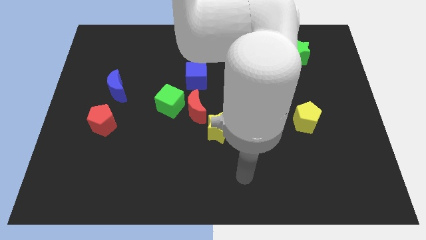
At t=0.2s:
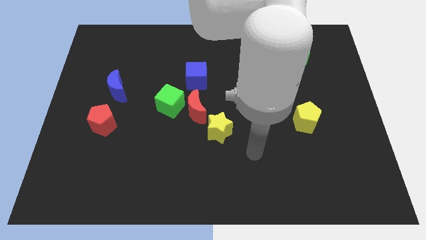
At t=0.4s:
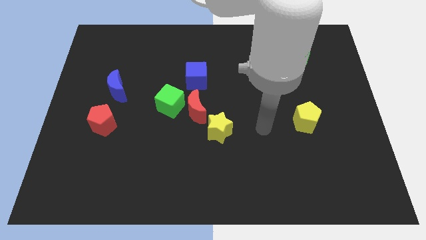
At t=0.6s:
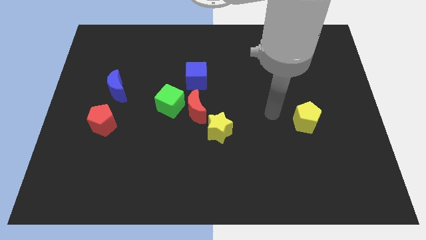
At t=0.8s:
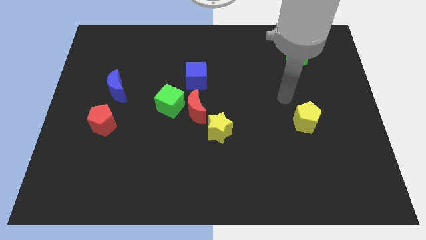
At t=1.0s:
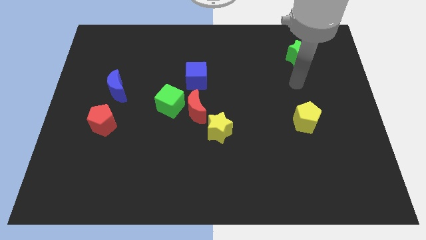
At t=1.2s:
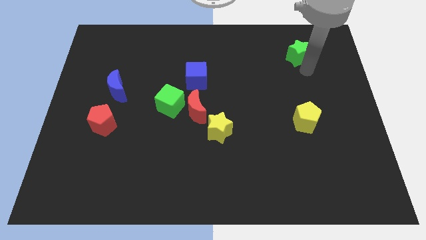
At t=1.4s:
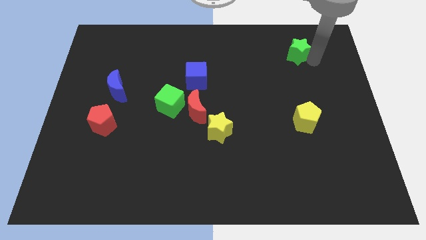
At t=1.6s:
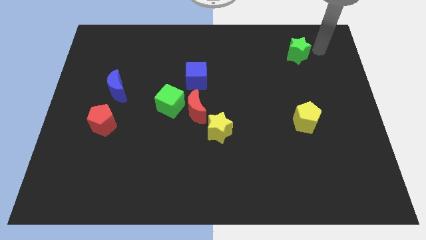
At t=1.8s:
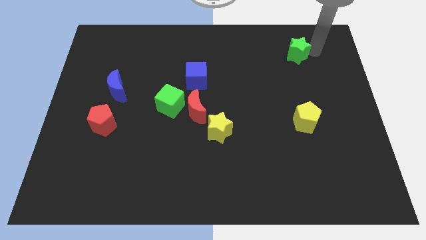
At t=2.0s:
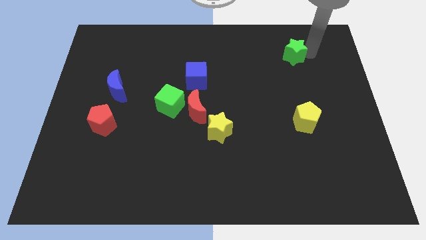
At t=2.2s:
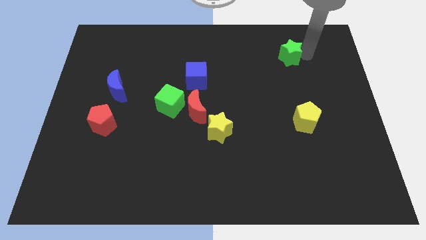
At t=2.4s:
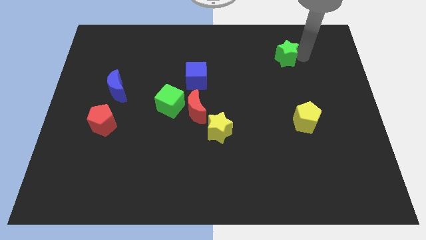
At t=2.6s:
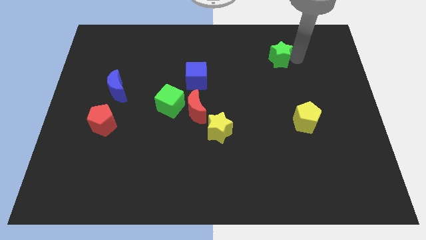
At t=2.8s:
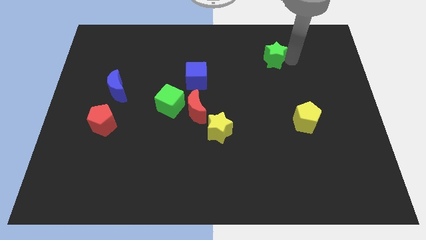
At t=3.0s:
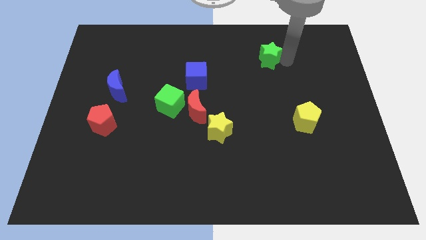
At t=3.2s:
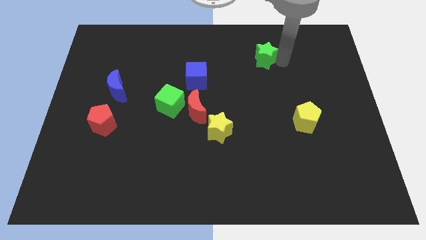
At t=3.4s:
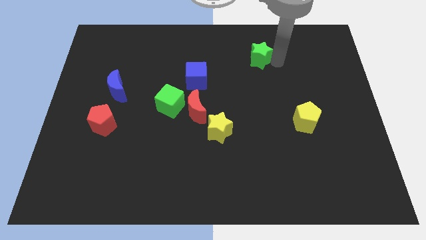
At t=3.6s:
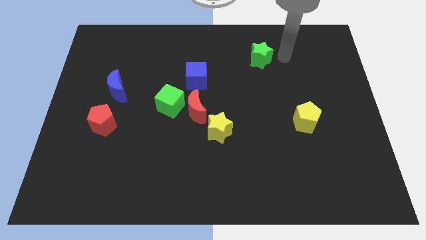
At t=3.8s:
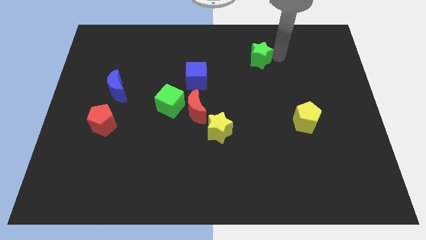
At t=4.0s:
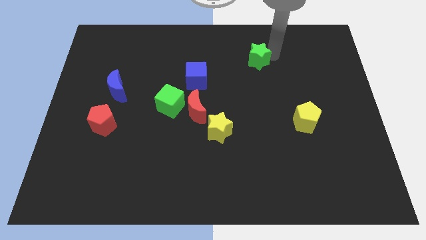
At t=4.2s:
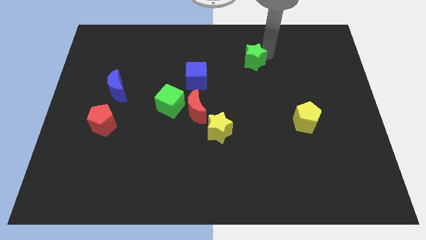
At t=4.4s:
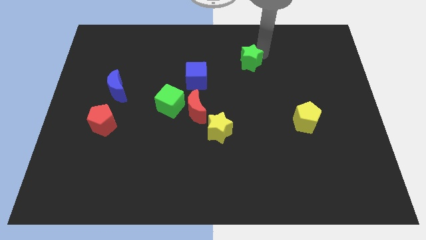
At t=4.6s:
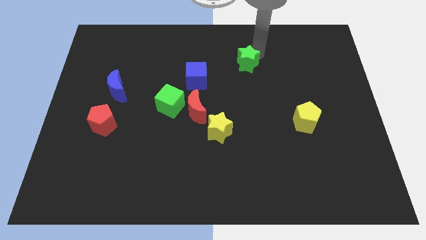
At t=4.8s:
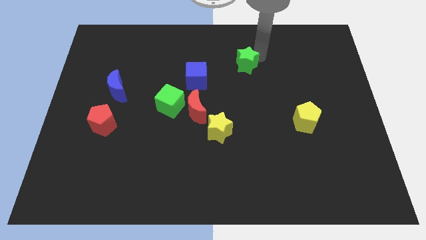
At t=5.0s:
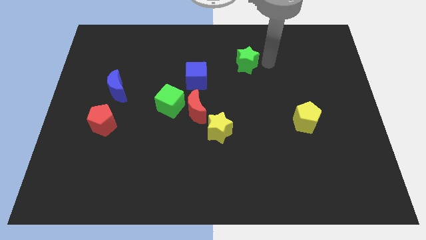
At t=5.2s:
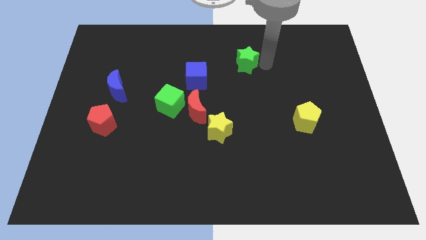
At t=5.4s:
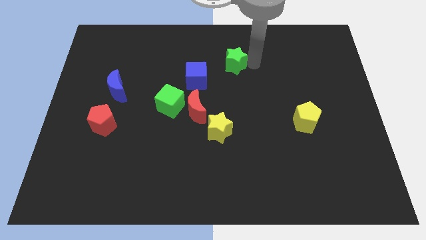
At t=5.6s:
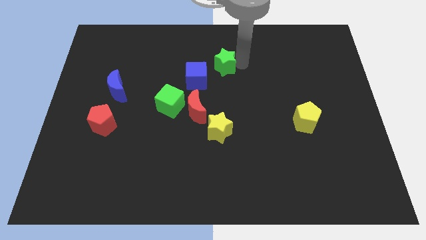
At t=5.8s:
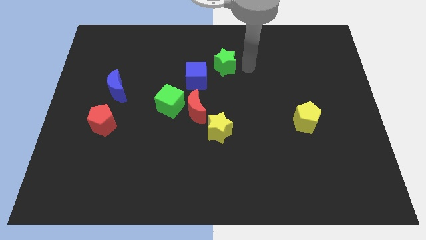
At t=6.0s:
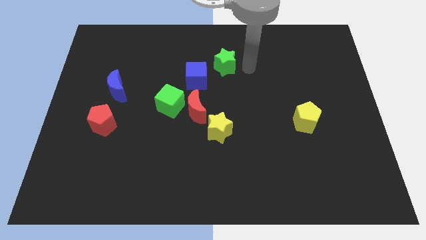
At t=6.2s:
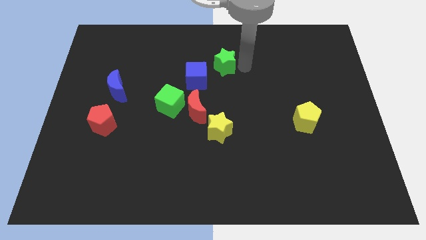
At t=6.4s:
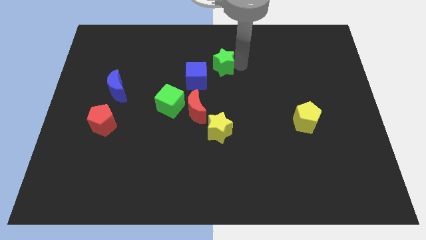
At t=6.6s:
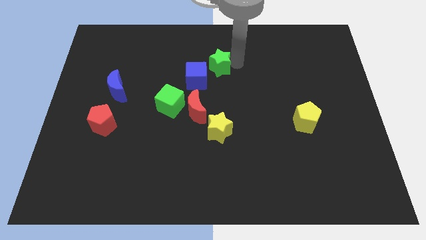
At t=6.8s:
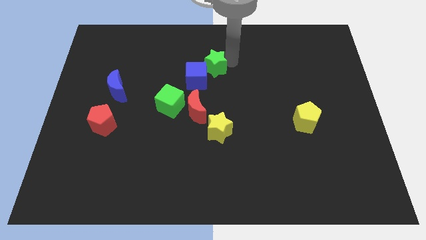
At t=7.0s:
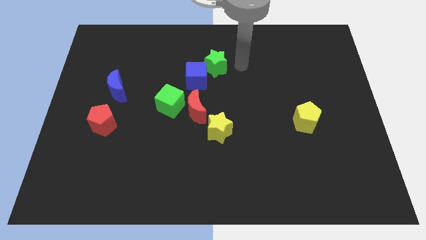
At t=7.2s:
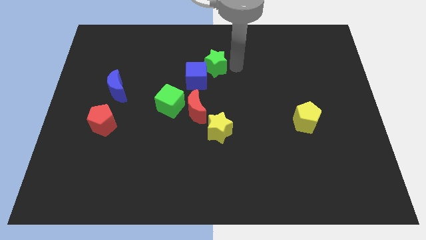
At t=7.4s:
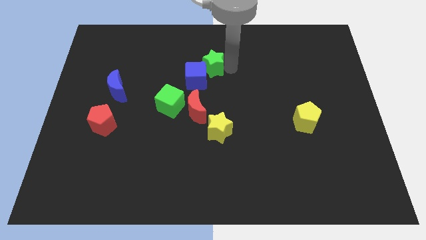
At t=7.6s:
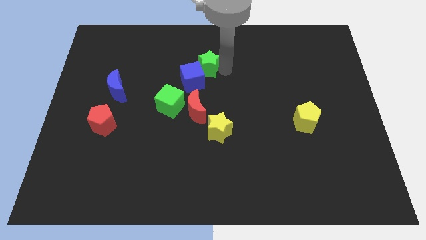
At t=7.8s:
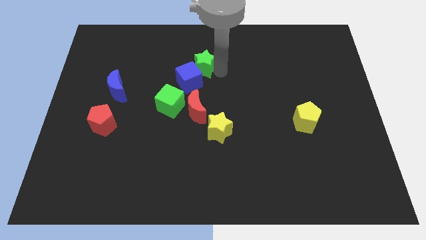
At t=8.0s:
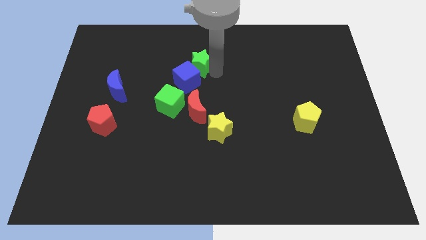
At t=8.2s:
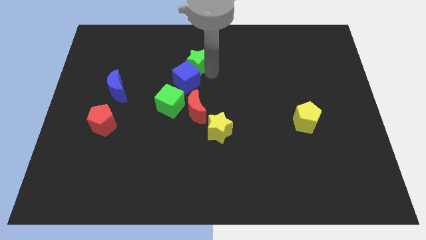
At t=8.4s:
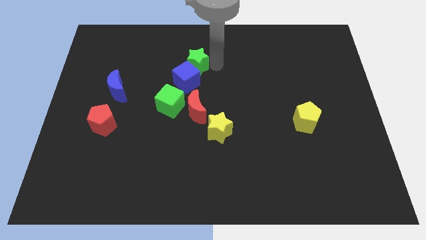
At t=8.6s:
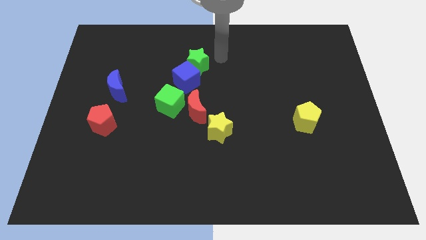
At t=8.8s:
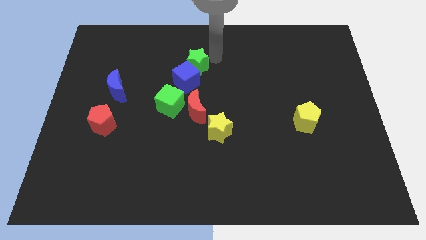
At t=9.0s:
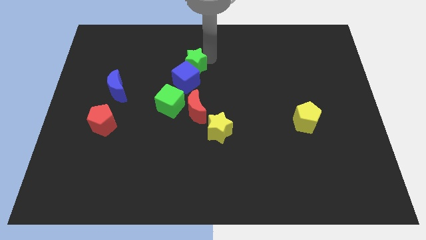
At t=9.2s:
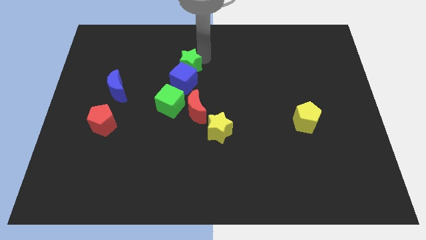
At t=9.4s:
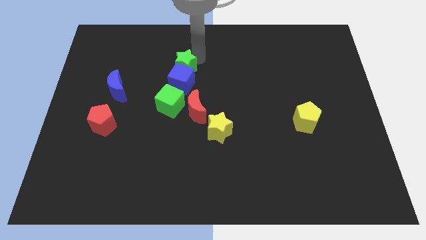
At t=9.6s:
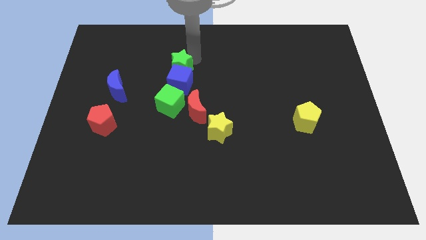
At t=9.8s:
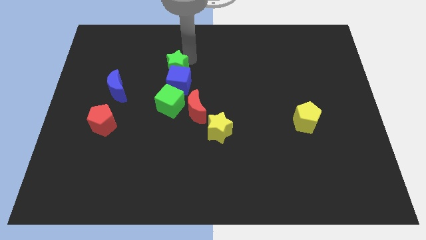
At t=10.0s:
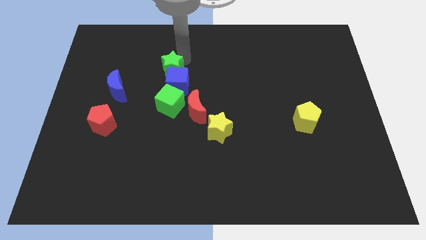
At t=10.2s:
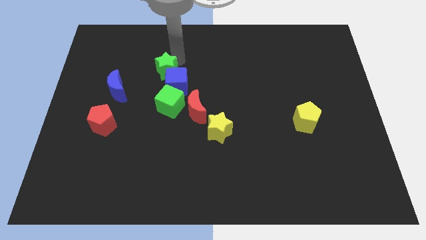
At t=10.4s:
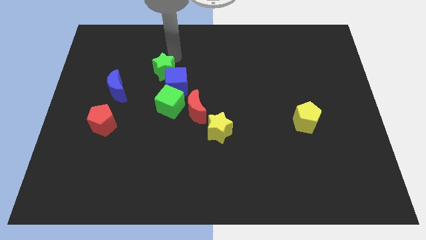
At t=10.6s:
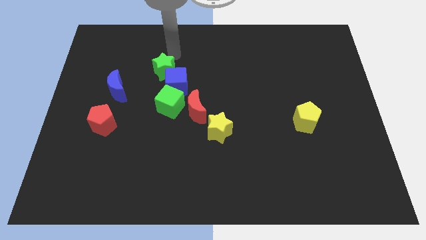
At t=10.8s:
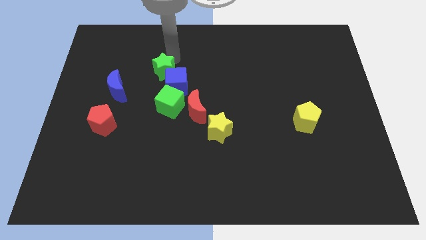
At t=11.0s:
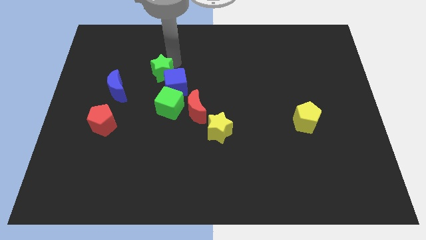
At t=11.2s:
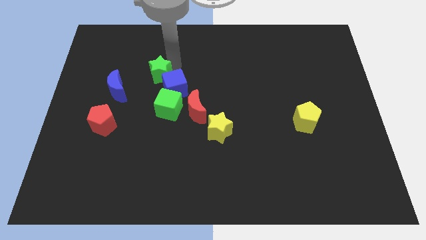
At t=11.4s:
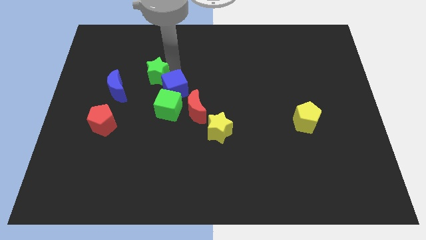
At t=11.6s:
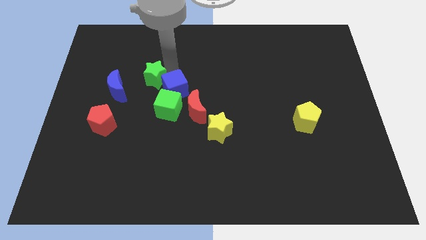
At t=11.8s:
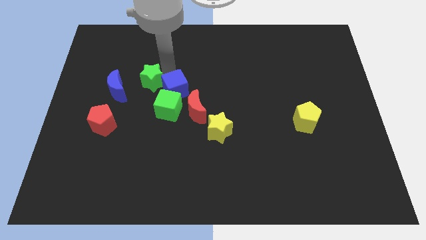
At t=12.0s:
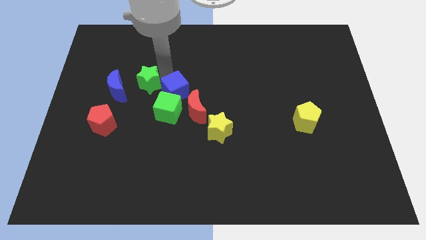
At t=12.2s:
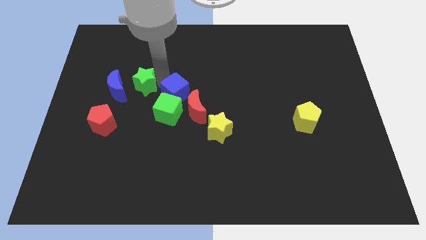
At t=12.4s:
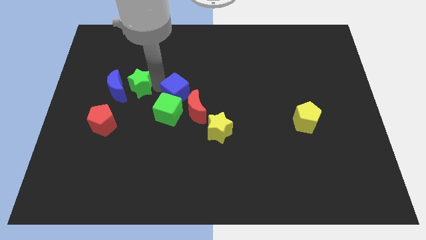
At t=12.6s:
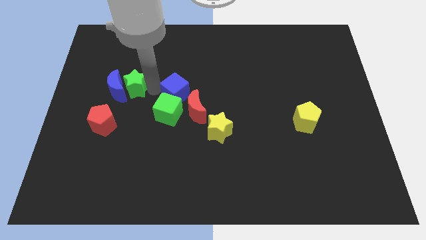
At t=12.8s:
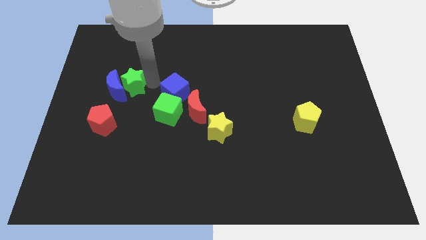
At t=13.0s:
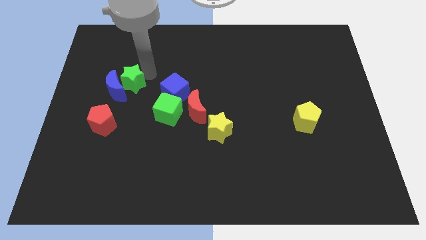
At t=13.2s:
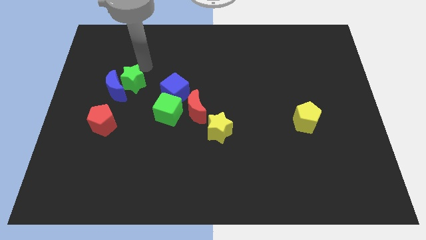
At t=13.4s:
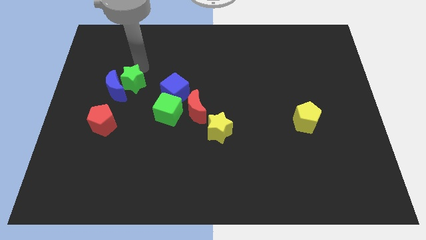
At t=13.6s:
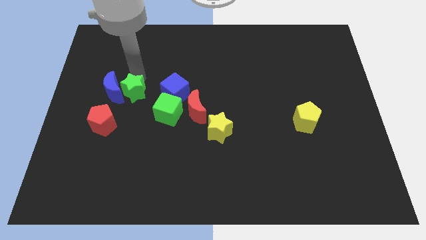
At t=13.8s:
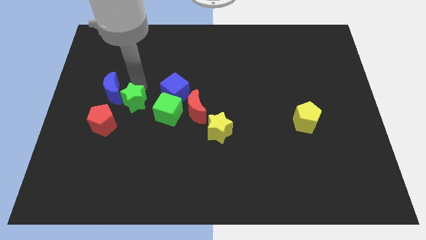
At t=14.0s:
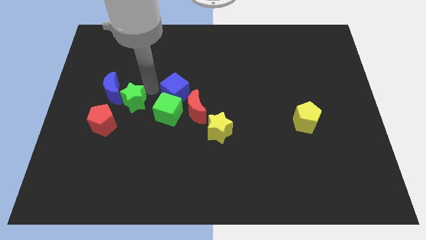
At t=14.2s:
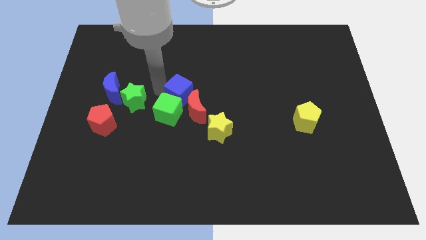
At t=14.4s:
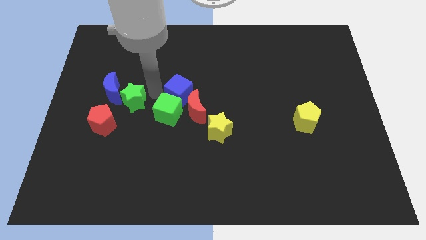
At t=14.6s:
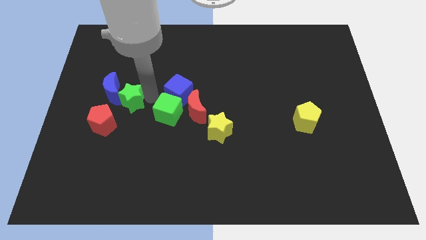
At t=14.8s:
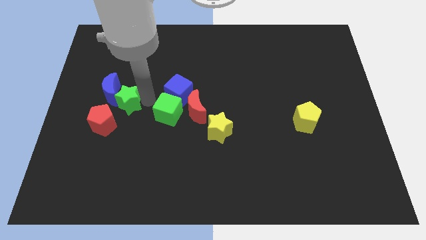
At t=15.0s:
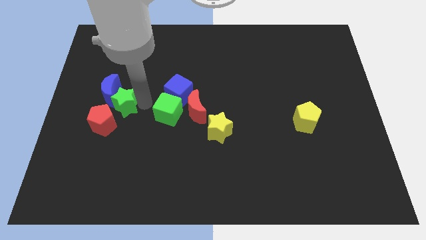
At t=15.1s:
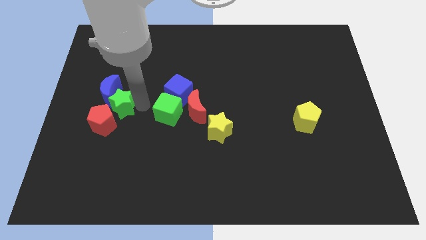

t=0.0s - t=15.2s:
move the green star next to the red pentagon

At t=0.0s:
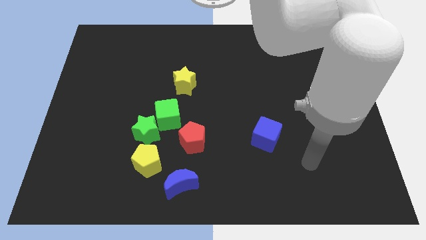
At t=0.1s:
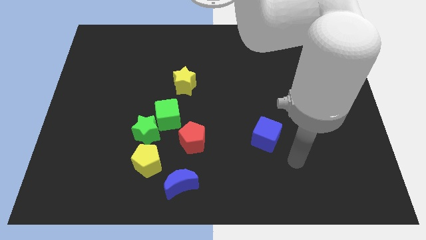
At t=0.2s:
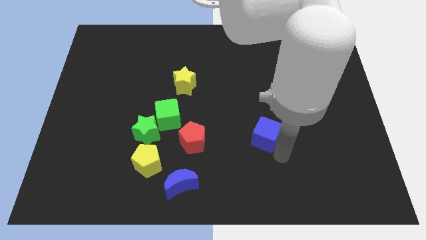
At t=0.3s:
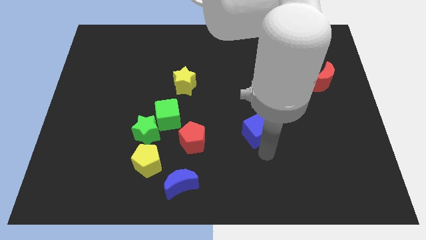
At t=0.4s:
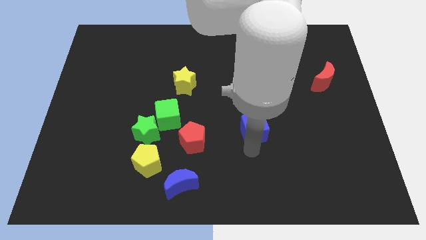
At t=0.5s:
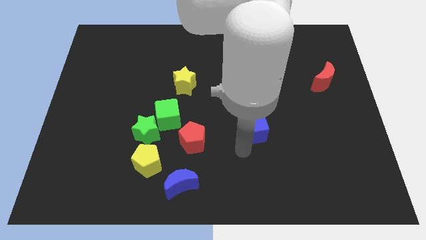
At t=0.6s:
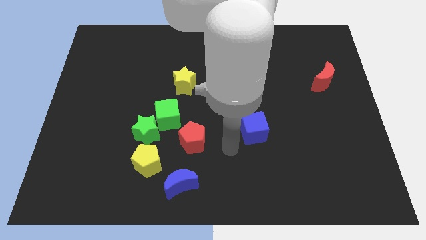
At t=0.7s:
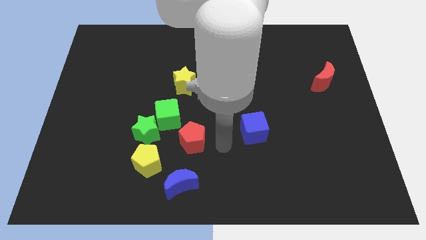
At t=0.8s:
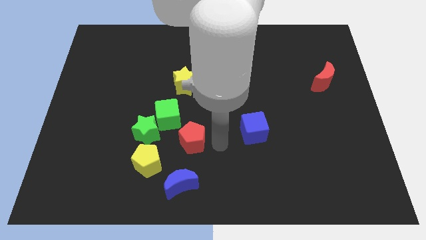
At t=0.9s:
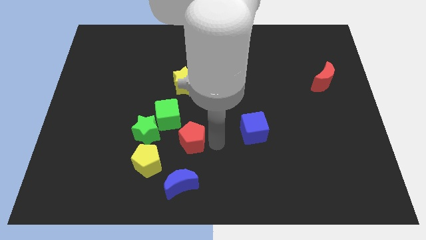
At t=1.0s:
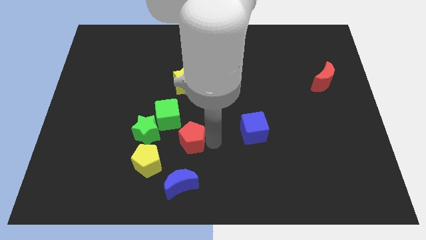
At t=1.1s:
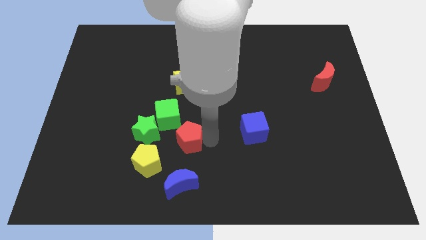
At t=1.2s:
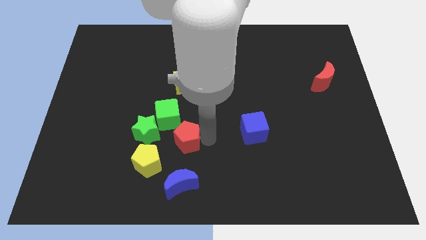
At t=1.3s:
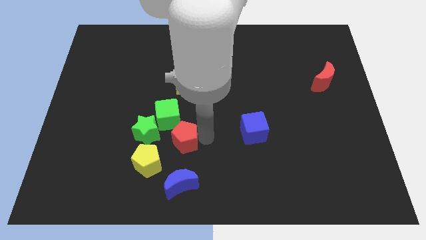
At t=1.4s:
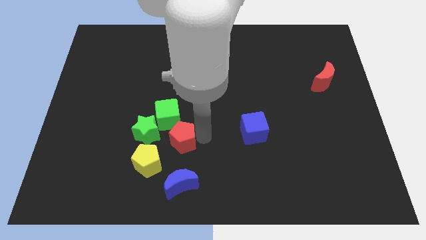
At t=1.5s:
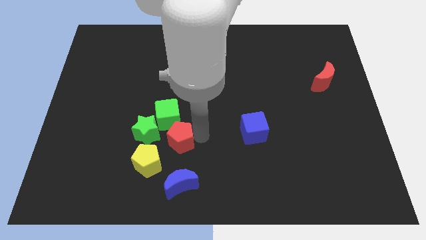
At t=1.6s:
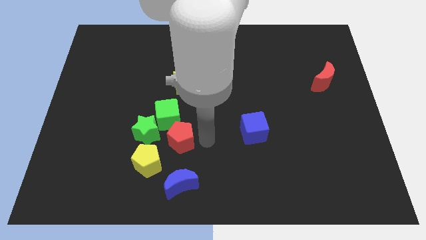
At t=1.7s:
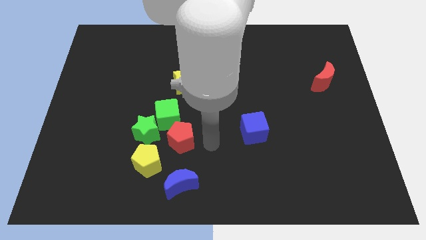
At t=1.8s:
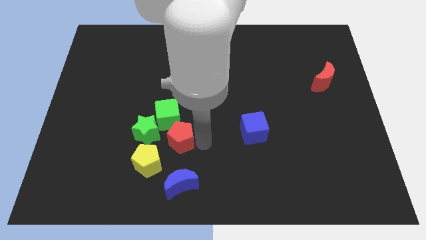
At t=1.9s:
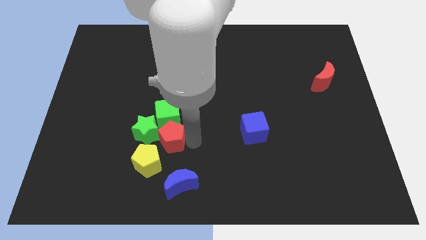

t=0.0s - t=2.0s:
put the red pentagon towards the green star
